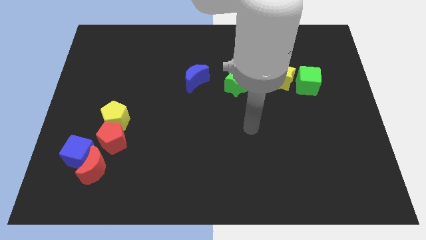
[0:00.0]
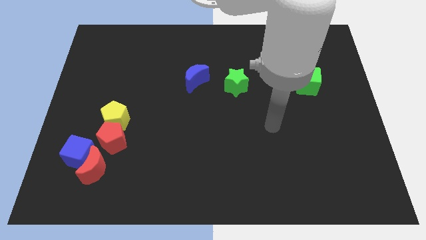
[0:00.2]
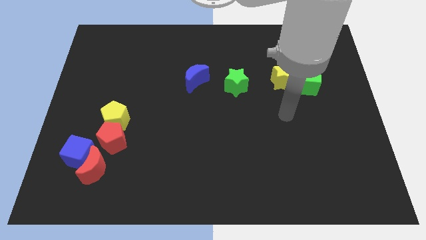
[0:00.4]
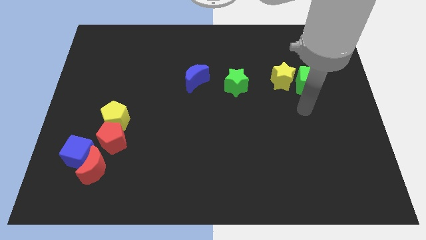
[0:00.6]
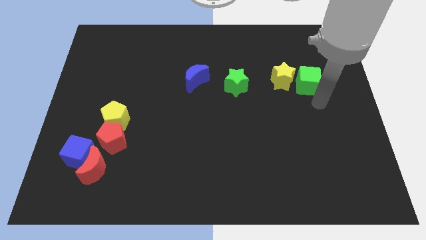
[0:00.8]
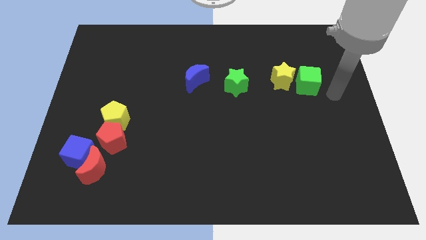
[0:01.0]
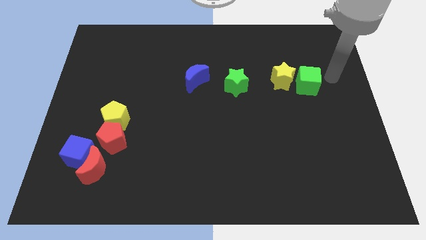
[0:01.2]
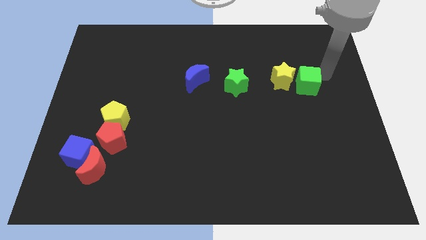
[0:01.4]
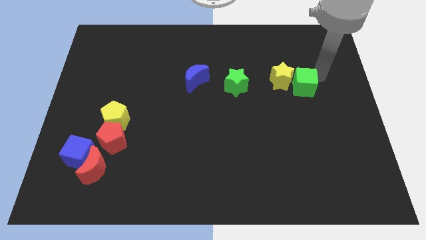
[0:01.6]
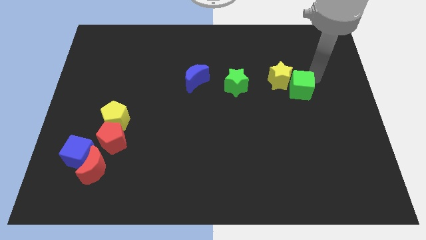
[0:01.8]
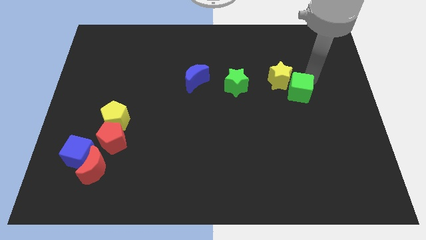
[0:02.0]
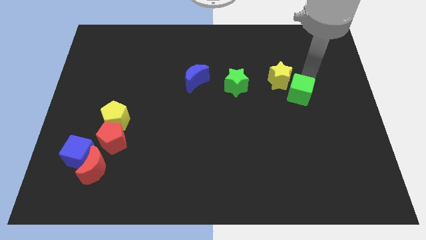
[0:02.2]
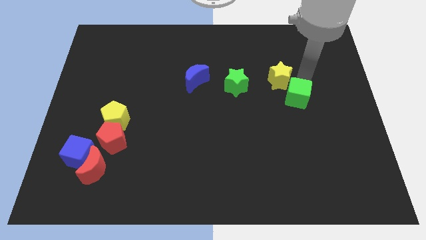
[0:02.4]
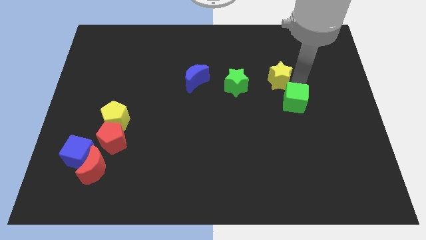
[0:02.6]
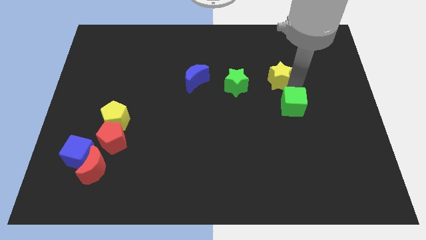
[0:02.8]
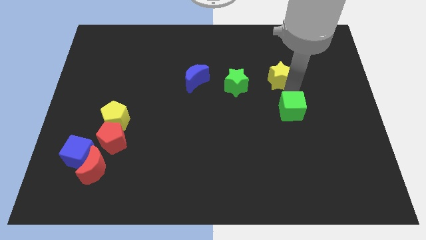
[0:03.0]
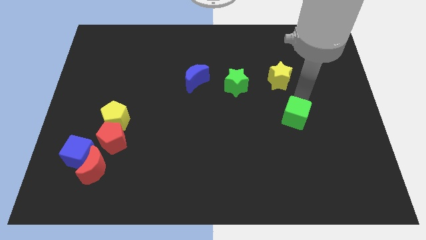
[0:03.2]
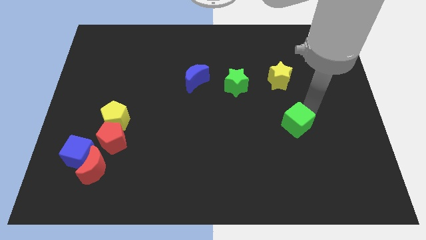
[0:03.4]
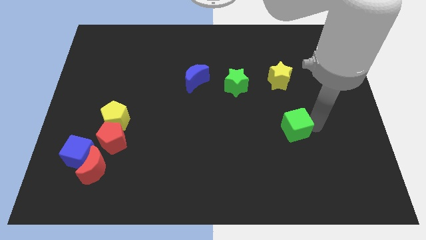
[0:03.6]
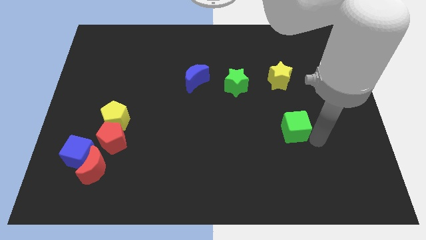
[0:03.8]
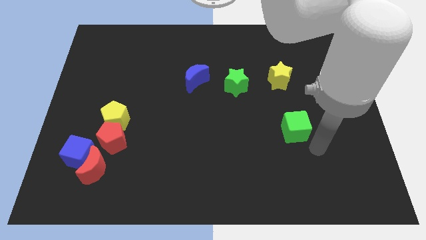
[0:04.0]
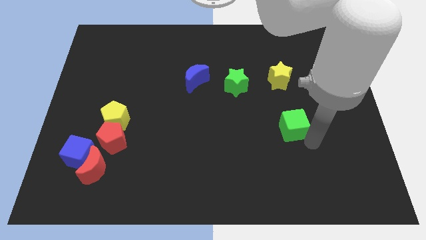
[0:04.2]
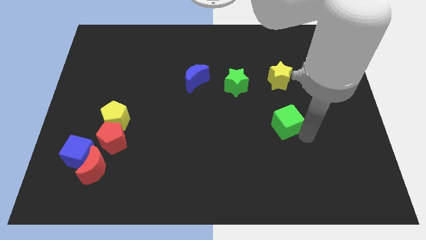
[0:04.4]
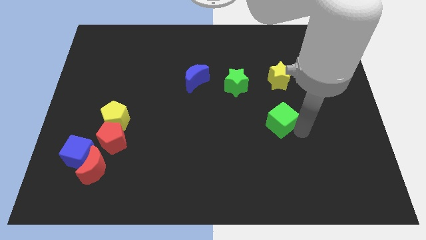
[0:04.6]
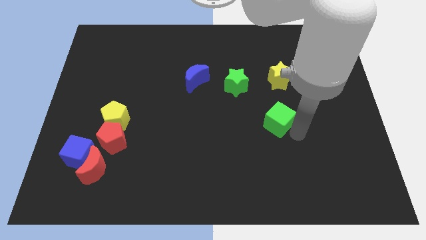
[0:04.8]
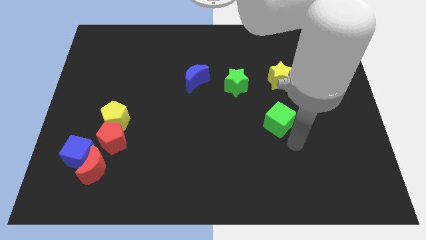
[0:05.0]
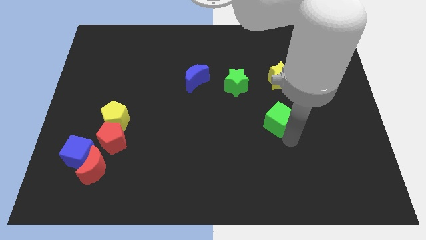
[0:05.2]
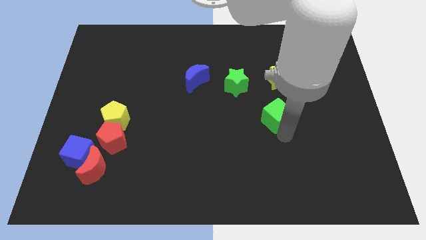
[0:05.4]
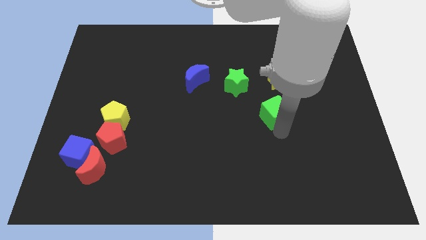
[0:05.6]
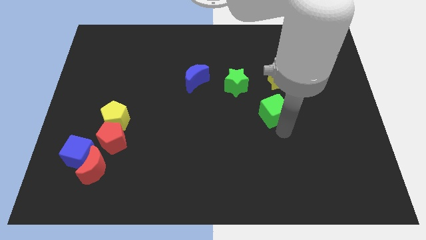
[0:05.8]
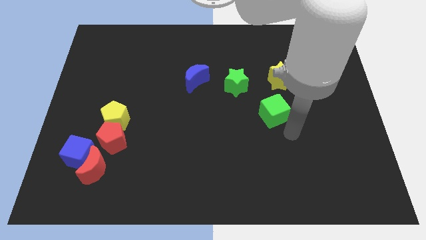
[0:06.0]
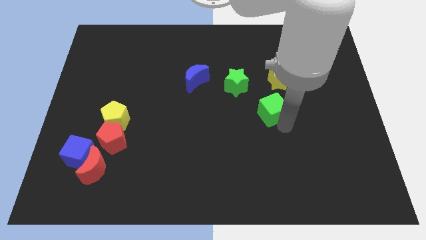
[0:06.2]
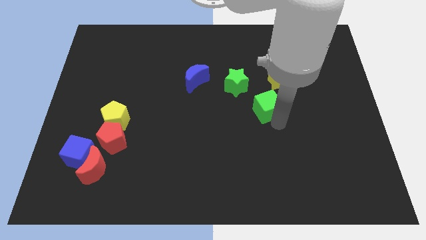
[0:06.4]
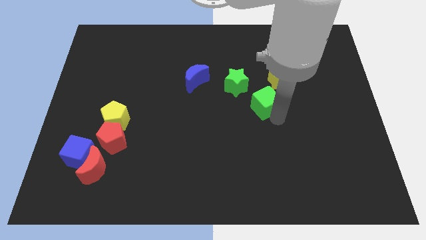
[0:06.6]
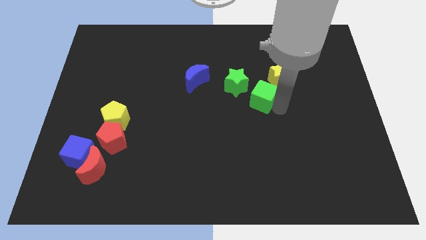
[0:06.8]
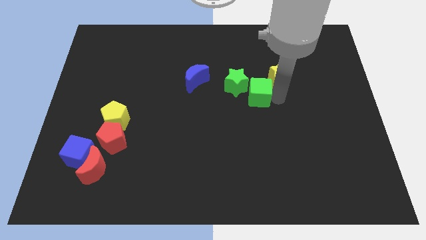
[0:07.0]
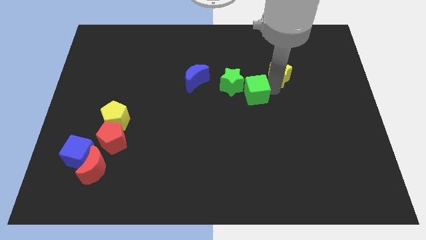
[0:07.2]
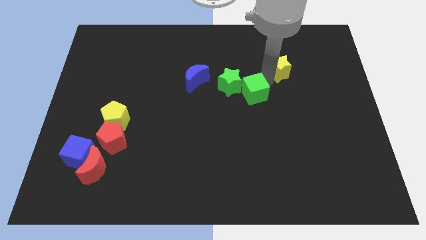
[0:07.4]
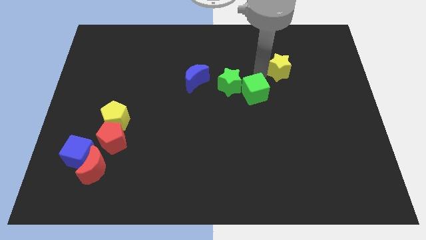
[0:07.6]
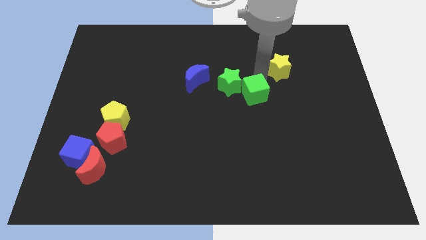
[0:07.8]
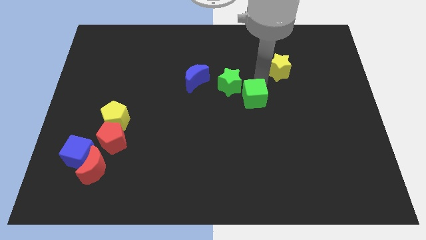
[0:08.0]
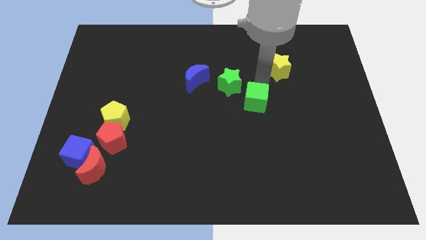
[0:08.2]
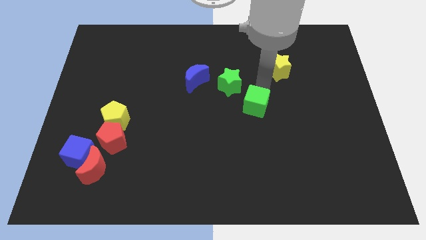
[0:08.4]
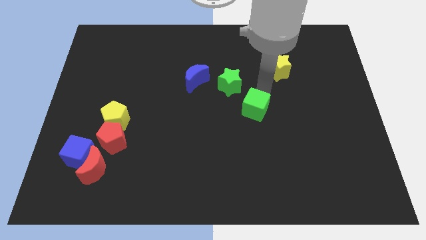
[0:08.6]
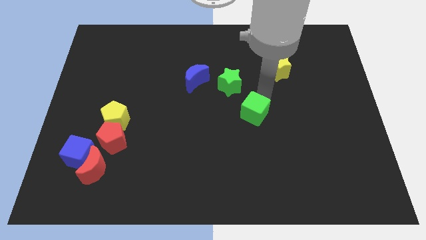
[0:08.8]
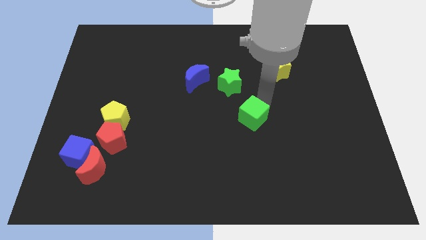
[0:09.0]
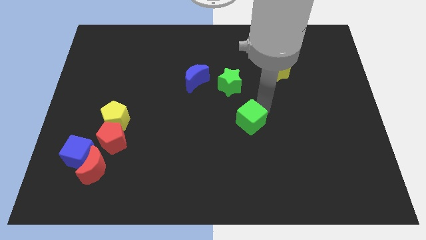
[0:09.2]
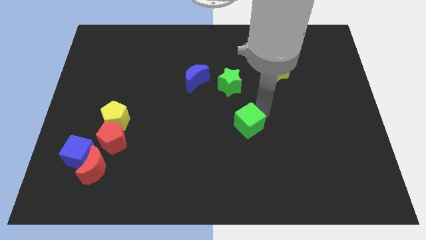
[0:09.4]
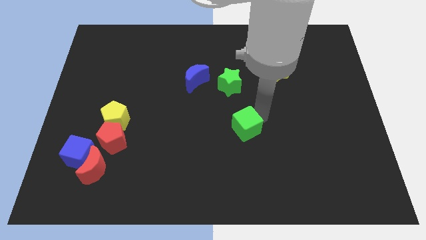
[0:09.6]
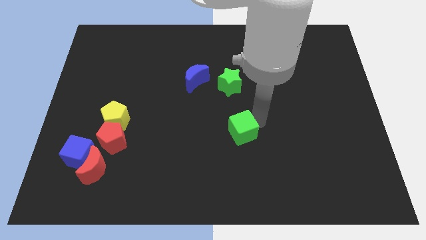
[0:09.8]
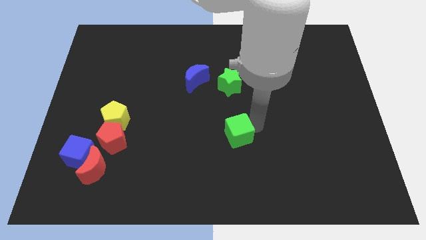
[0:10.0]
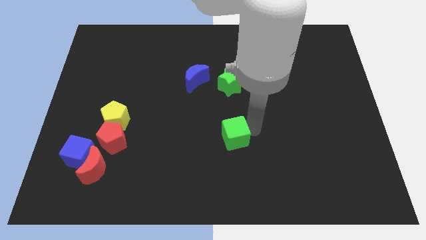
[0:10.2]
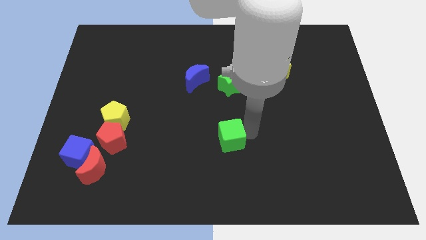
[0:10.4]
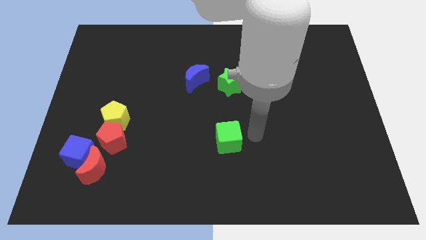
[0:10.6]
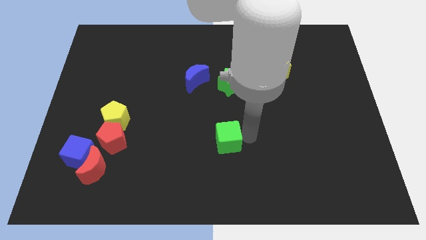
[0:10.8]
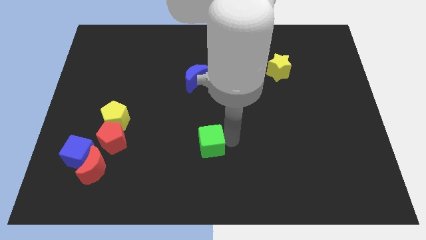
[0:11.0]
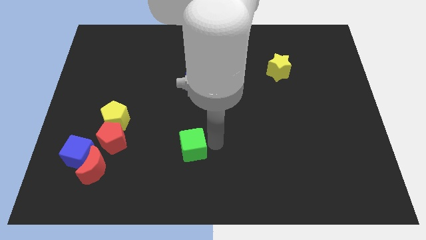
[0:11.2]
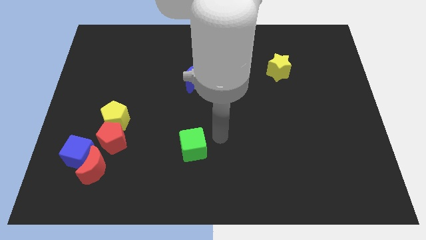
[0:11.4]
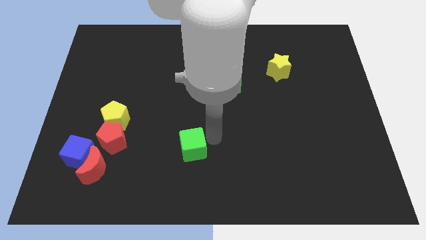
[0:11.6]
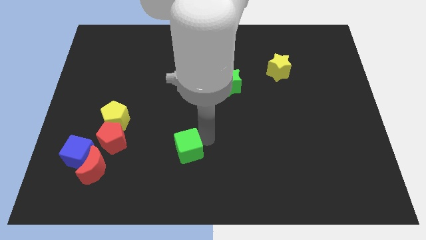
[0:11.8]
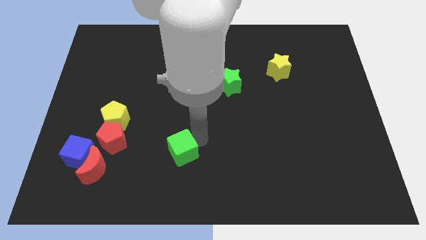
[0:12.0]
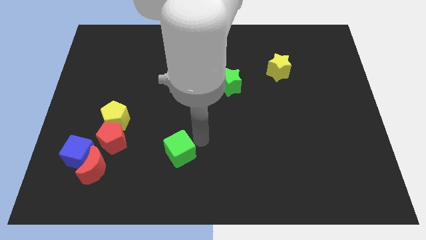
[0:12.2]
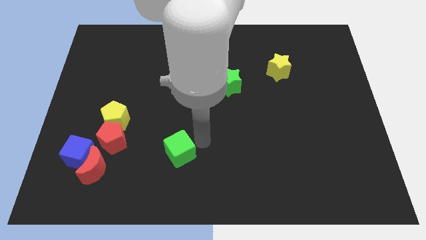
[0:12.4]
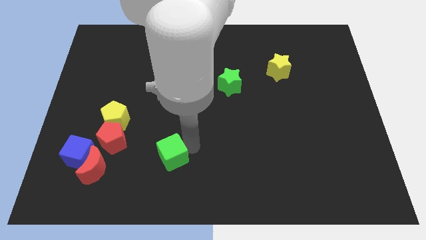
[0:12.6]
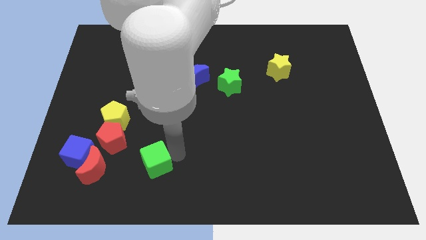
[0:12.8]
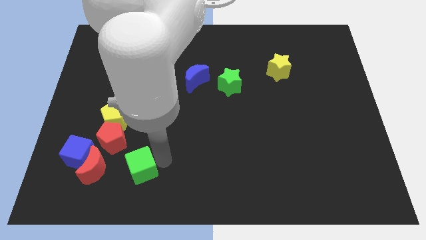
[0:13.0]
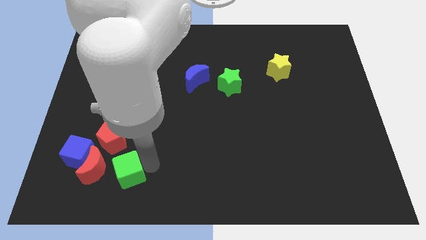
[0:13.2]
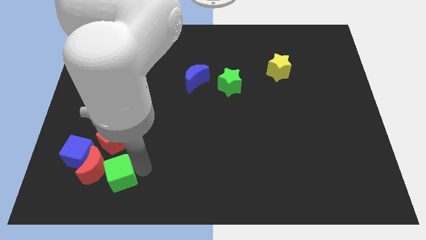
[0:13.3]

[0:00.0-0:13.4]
push the green cube to the bottom right side of the blue cube
